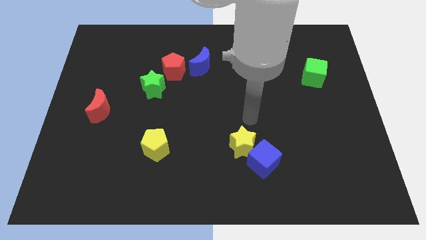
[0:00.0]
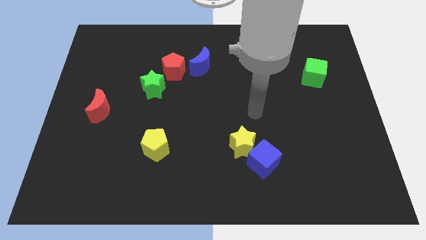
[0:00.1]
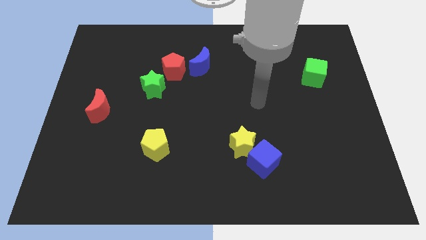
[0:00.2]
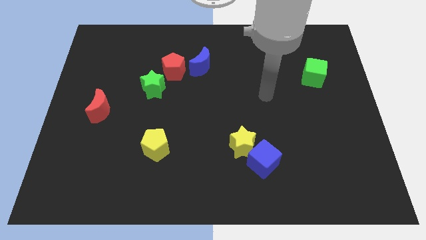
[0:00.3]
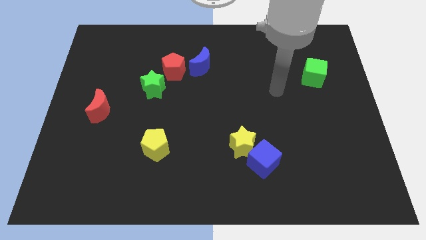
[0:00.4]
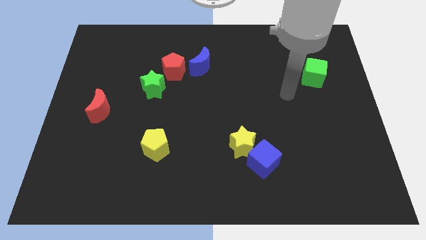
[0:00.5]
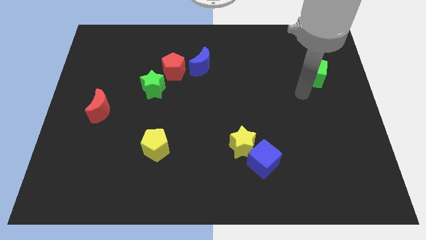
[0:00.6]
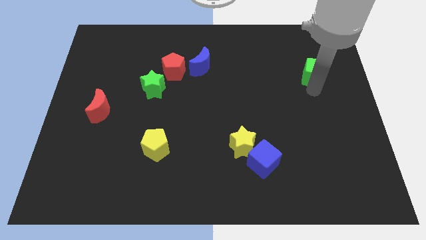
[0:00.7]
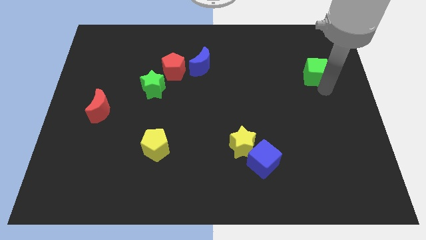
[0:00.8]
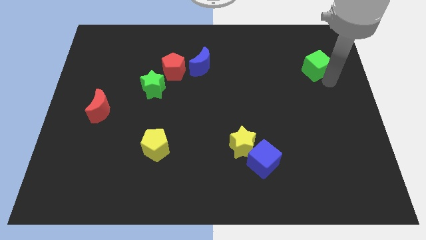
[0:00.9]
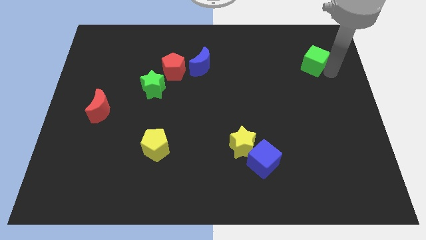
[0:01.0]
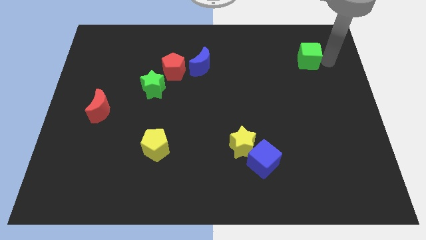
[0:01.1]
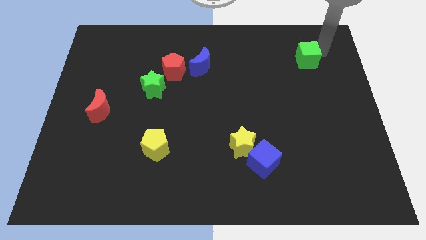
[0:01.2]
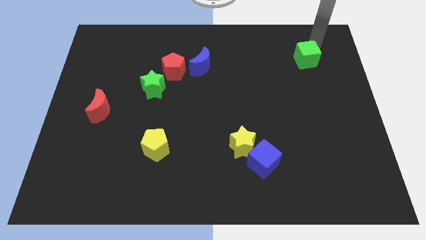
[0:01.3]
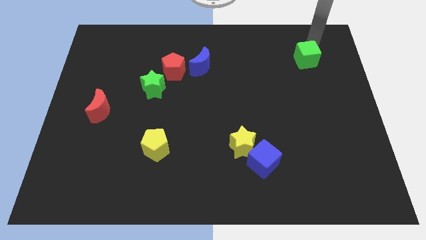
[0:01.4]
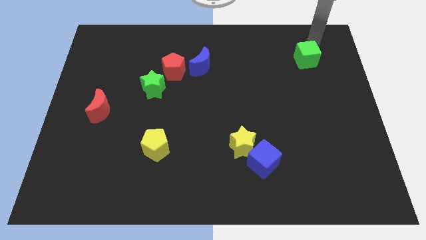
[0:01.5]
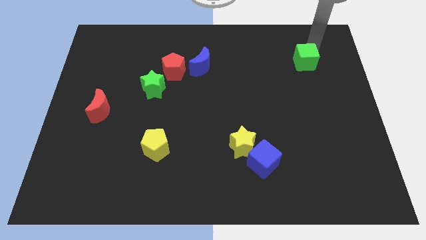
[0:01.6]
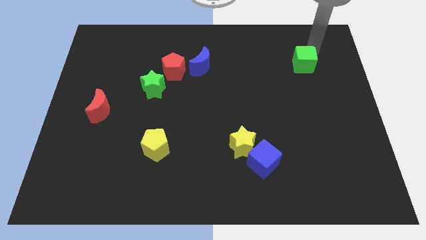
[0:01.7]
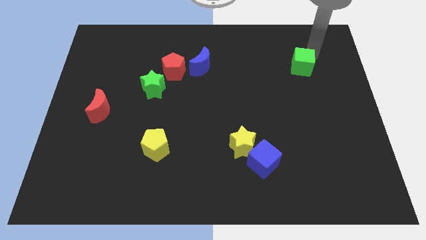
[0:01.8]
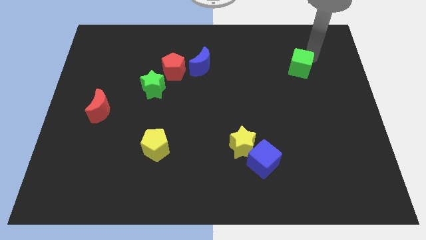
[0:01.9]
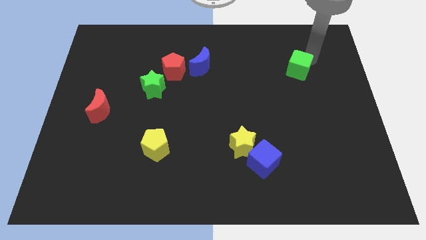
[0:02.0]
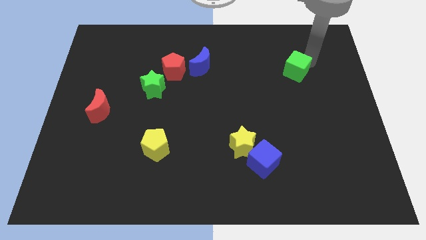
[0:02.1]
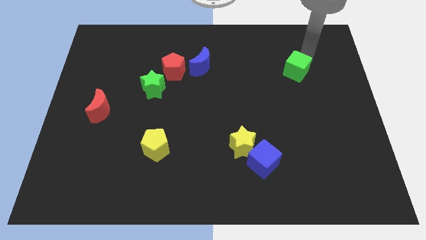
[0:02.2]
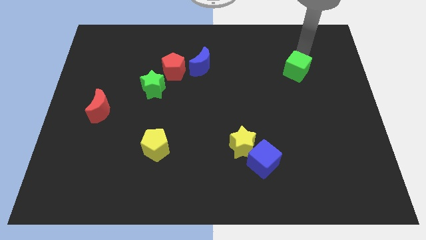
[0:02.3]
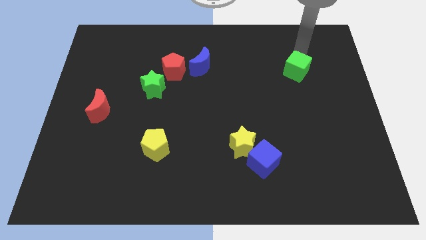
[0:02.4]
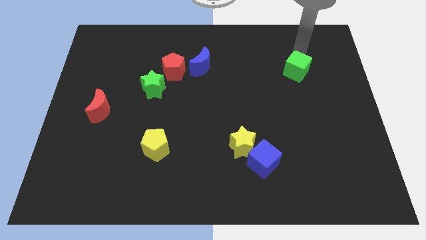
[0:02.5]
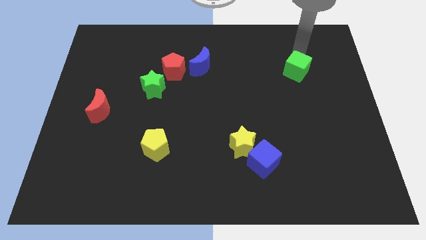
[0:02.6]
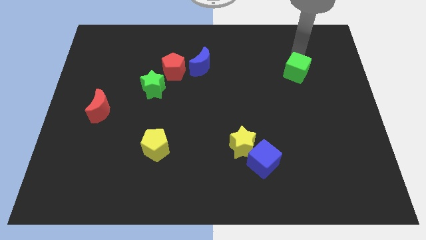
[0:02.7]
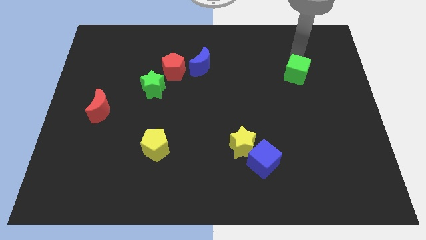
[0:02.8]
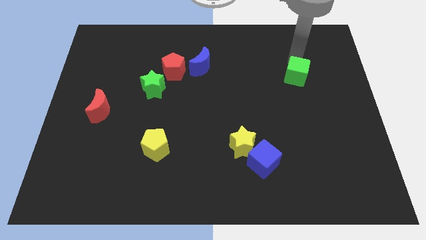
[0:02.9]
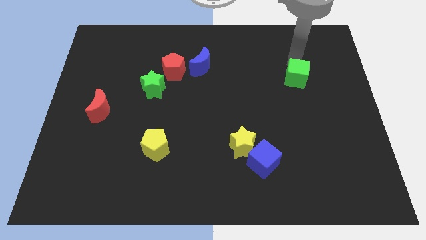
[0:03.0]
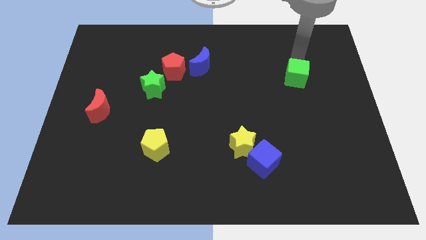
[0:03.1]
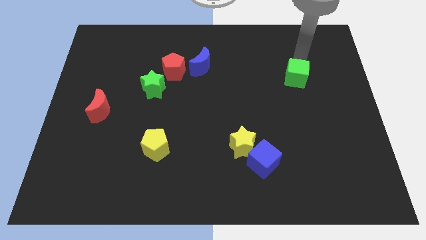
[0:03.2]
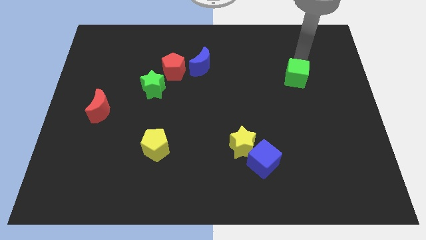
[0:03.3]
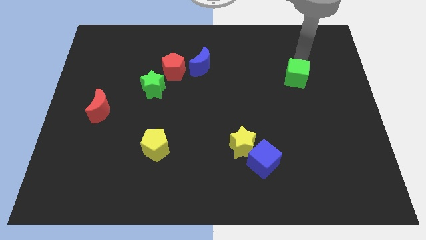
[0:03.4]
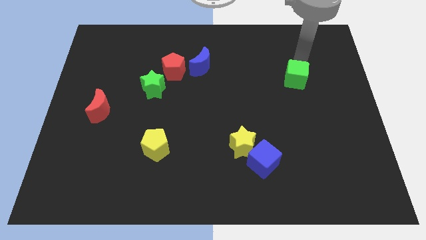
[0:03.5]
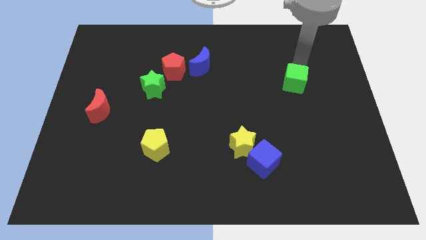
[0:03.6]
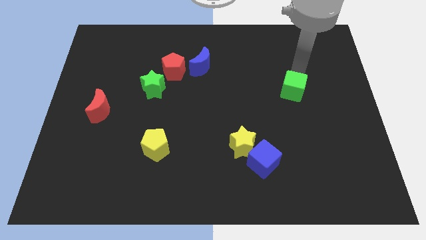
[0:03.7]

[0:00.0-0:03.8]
slightly push the green cube diagonally downwards and to the left

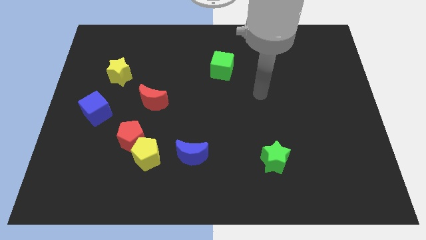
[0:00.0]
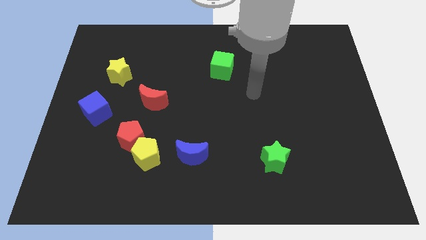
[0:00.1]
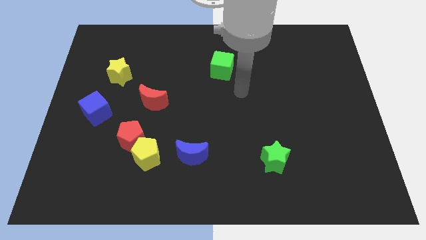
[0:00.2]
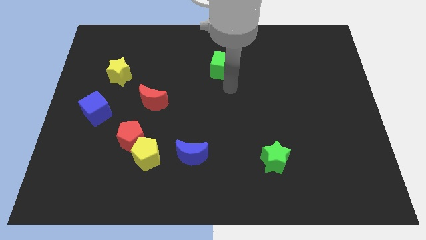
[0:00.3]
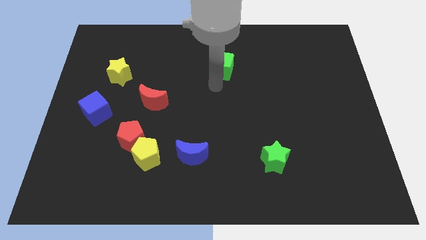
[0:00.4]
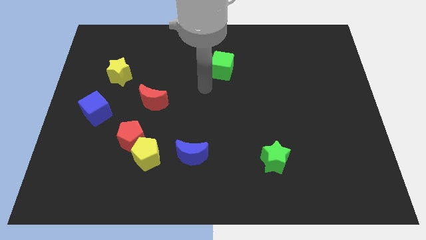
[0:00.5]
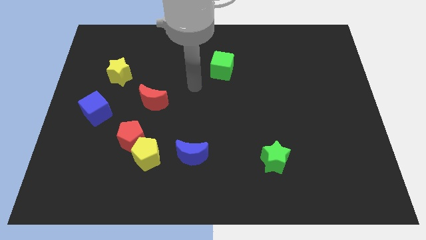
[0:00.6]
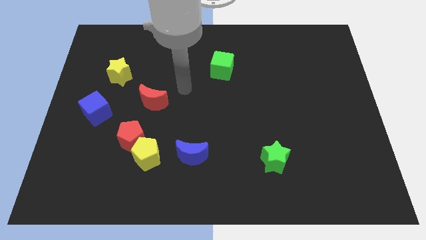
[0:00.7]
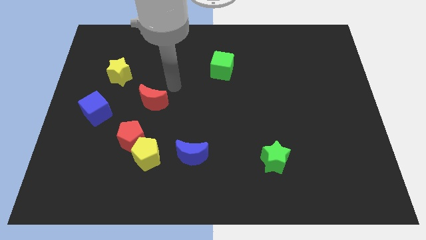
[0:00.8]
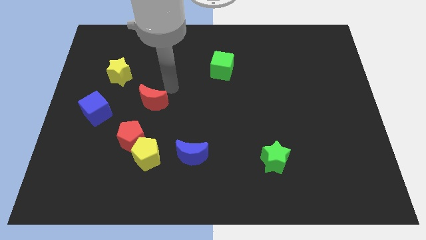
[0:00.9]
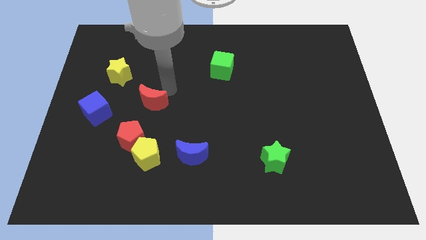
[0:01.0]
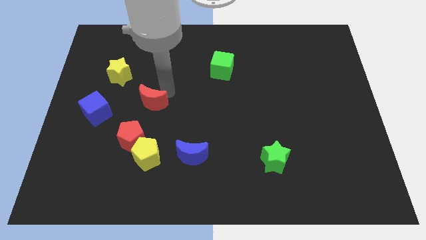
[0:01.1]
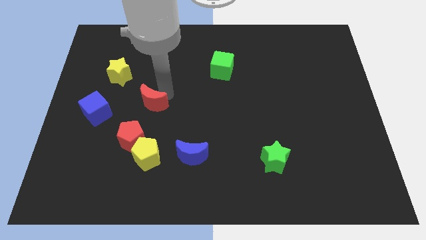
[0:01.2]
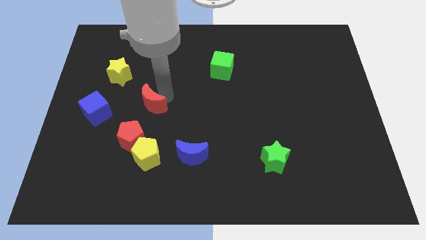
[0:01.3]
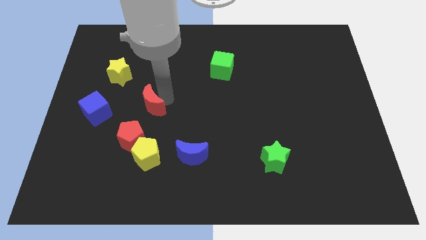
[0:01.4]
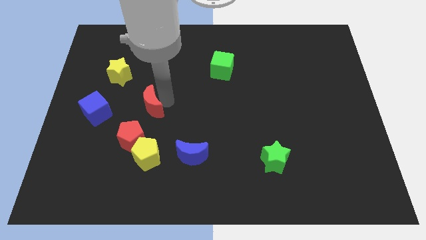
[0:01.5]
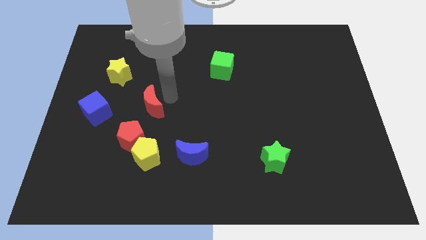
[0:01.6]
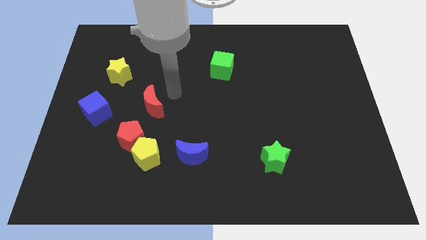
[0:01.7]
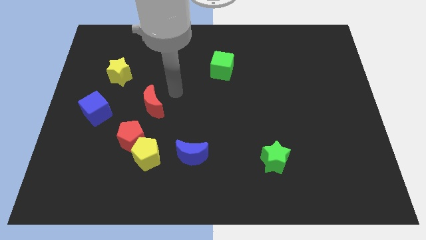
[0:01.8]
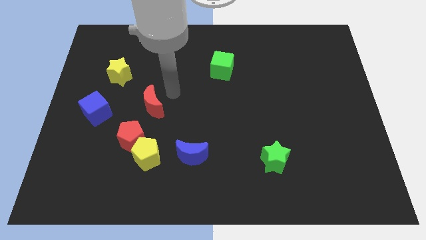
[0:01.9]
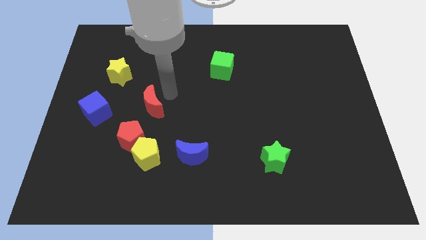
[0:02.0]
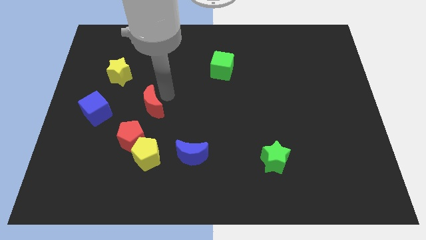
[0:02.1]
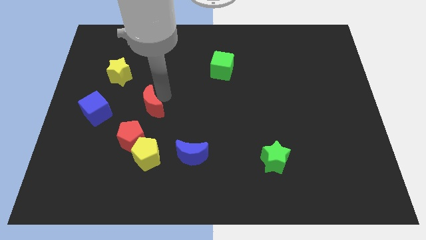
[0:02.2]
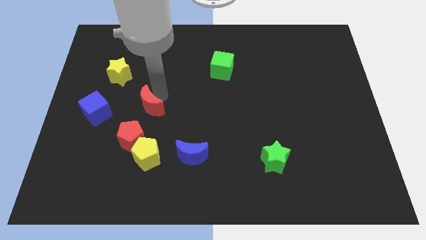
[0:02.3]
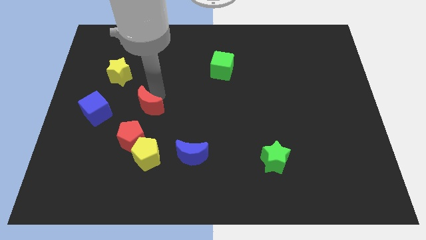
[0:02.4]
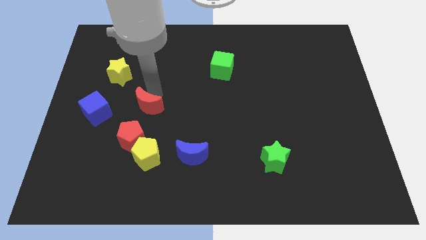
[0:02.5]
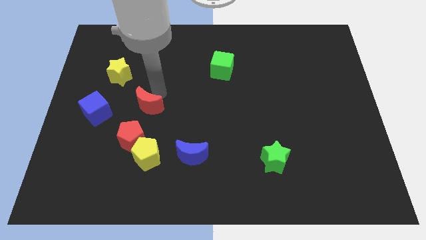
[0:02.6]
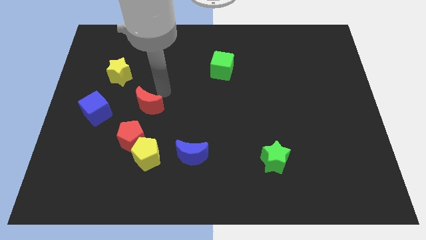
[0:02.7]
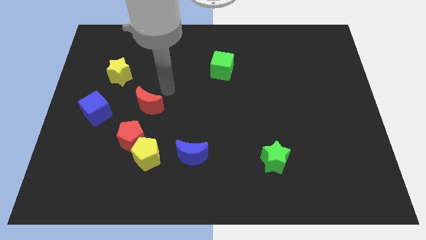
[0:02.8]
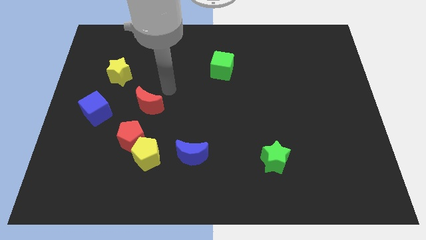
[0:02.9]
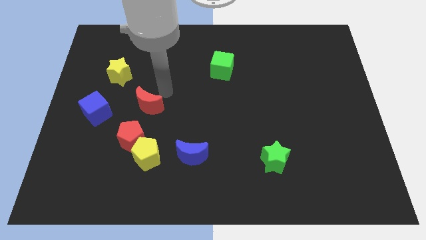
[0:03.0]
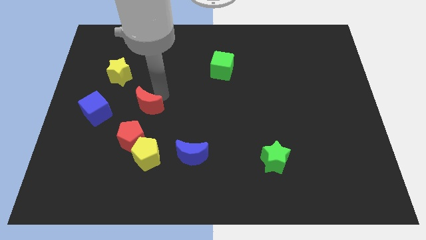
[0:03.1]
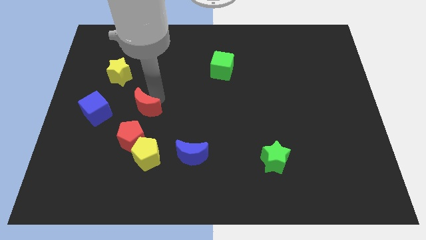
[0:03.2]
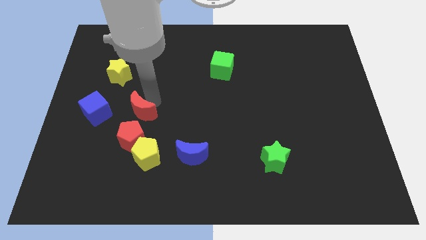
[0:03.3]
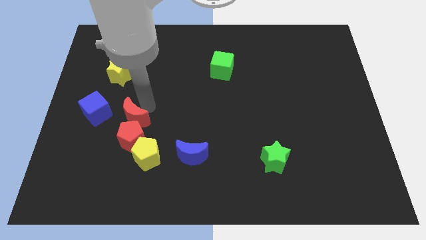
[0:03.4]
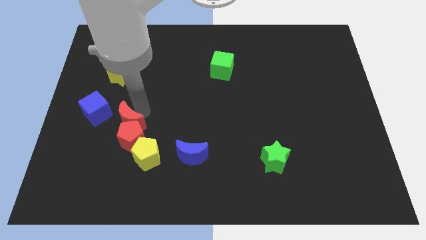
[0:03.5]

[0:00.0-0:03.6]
move the red moon a bit down and to the left diagonally

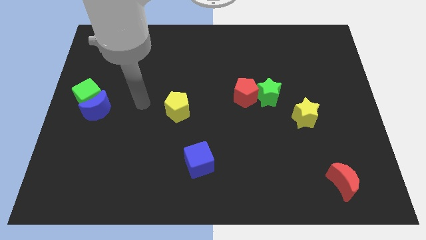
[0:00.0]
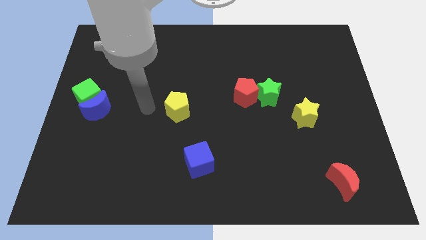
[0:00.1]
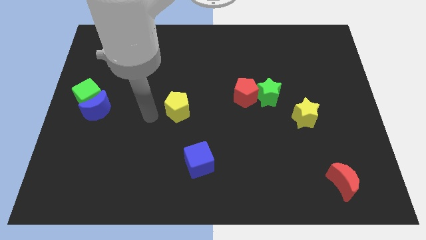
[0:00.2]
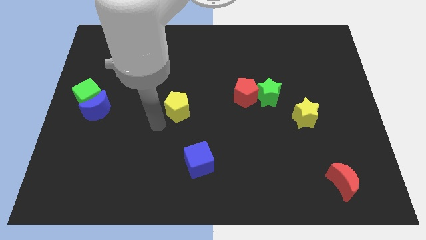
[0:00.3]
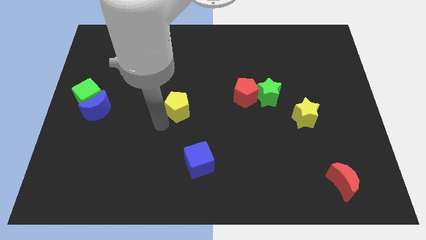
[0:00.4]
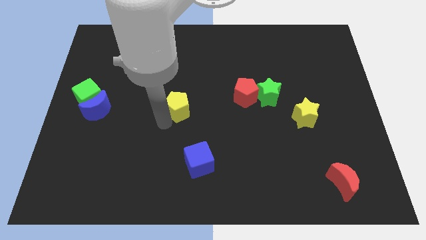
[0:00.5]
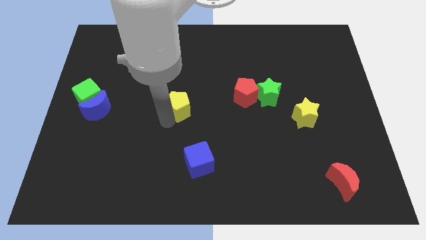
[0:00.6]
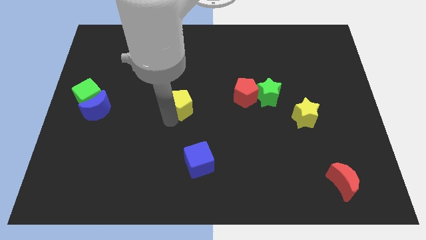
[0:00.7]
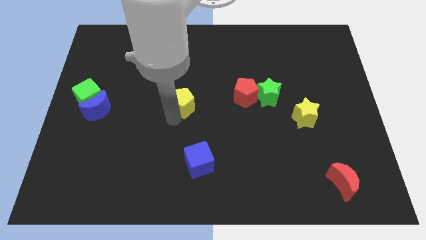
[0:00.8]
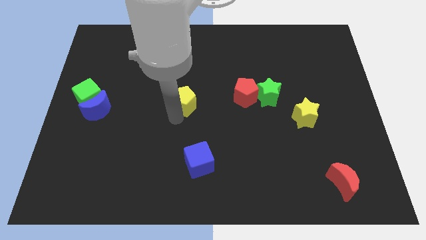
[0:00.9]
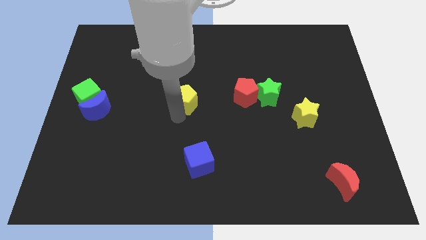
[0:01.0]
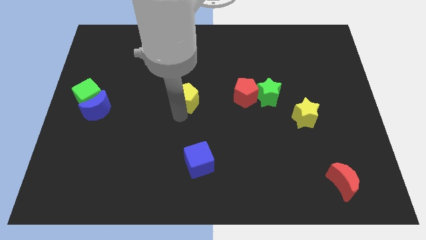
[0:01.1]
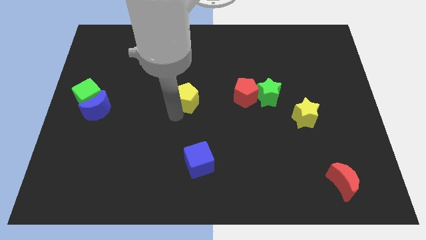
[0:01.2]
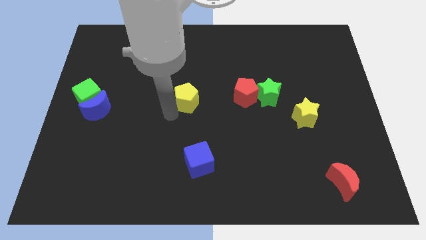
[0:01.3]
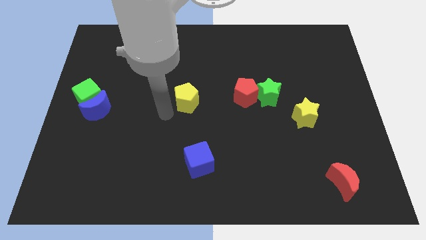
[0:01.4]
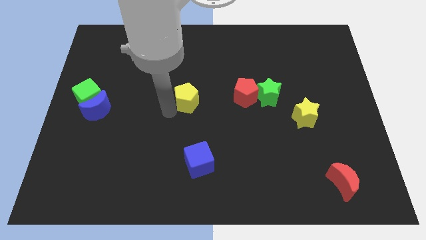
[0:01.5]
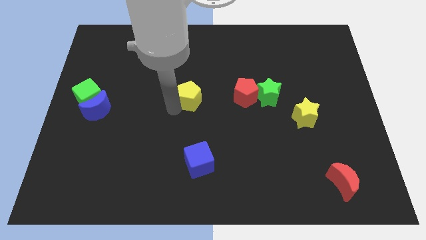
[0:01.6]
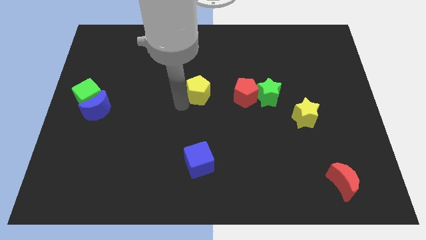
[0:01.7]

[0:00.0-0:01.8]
slide the yellow pentagon upwards and right diagonally a little
